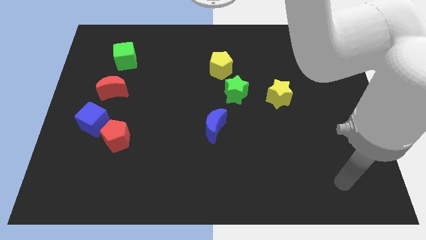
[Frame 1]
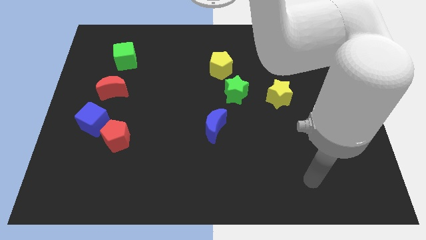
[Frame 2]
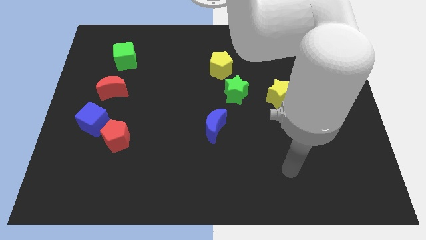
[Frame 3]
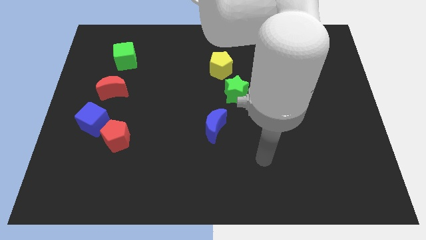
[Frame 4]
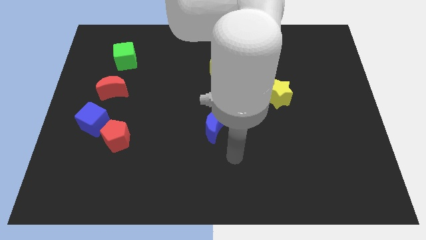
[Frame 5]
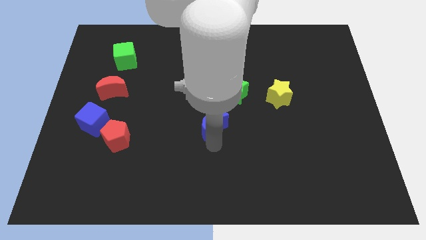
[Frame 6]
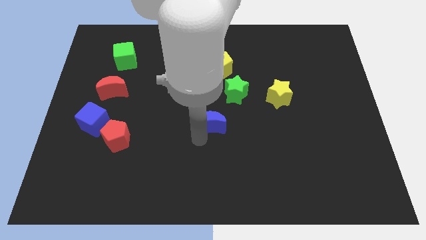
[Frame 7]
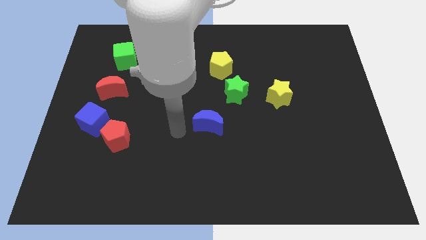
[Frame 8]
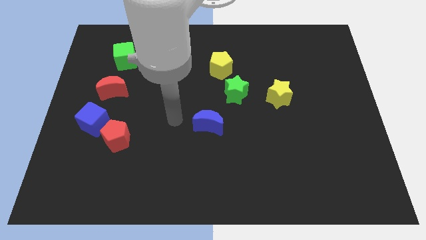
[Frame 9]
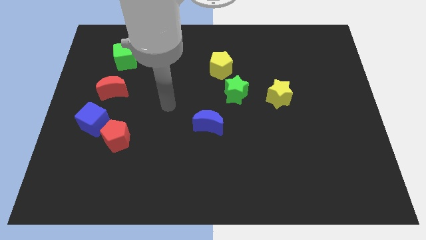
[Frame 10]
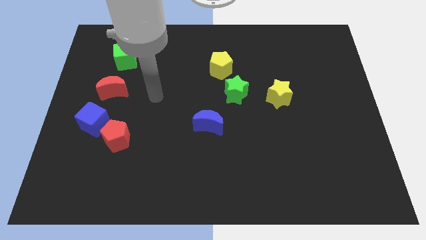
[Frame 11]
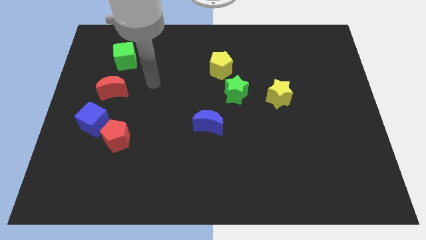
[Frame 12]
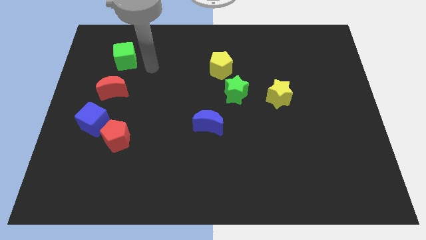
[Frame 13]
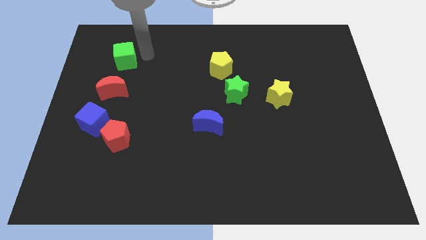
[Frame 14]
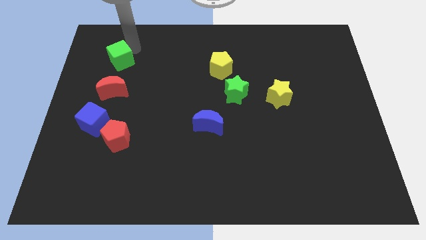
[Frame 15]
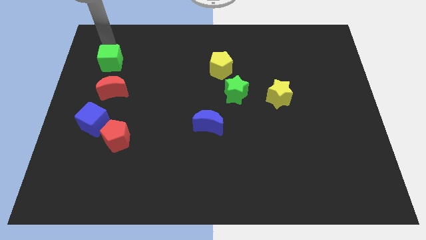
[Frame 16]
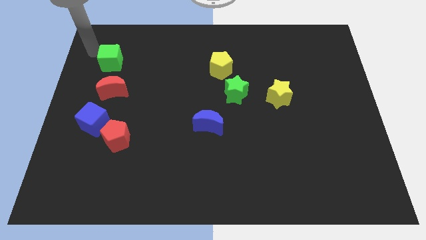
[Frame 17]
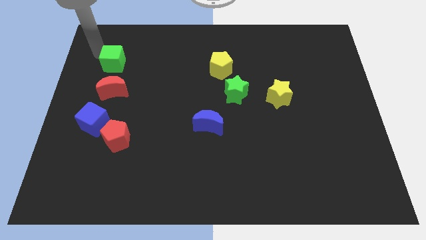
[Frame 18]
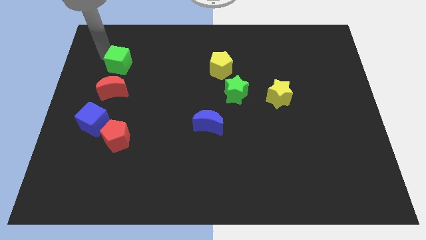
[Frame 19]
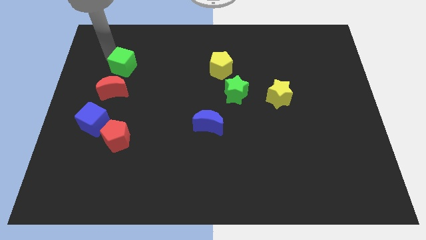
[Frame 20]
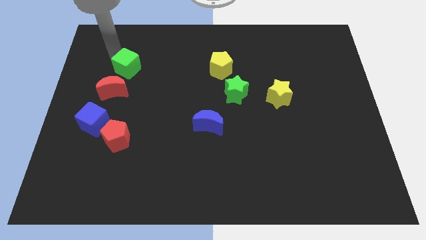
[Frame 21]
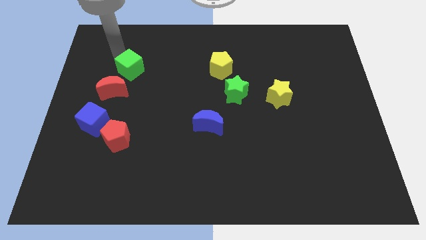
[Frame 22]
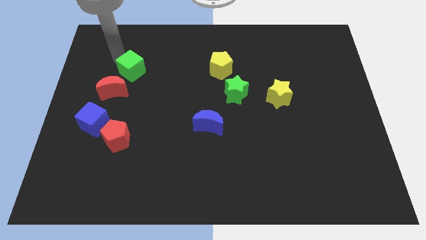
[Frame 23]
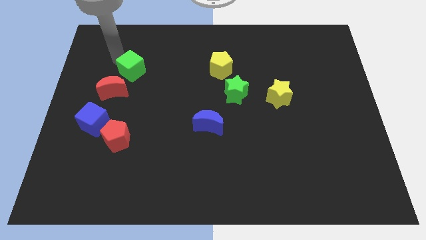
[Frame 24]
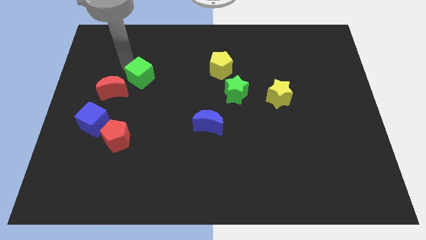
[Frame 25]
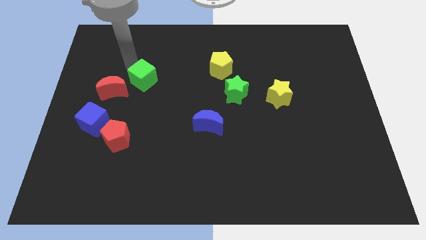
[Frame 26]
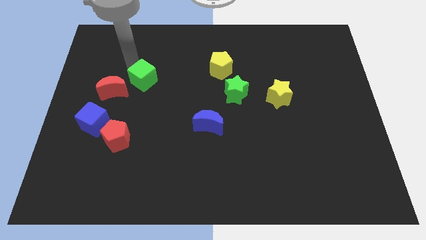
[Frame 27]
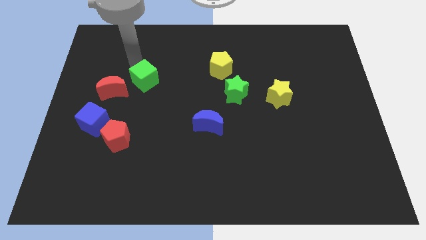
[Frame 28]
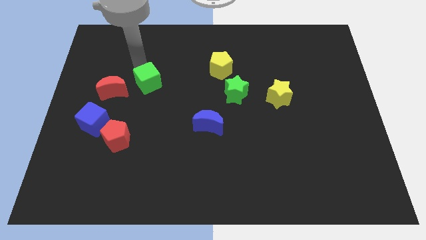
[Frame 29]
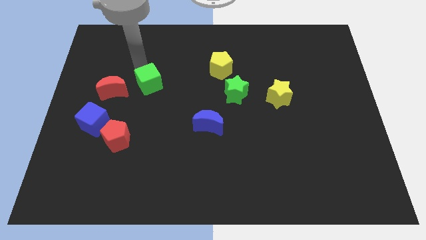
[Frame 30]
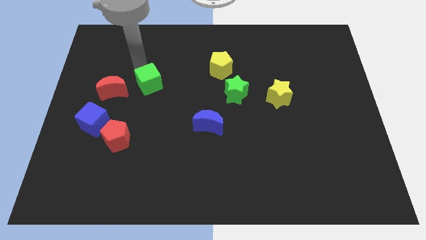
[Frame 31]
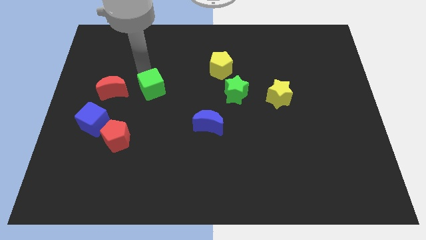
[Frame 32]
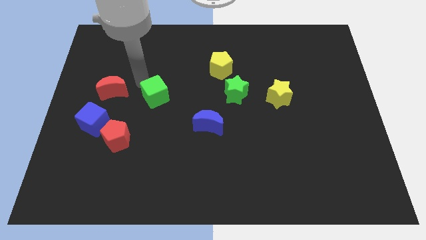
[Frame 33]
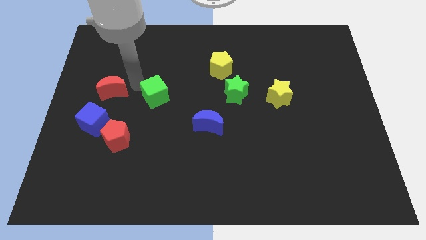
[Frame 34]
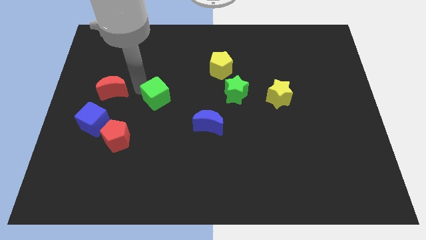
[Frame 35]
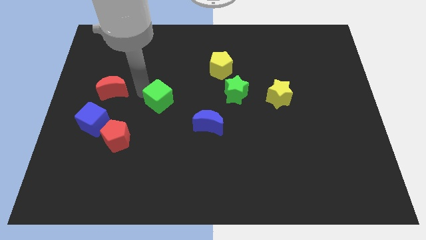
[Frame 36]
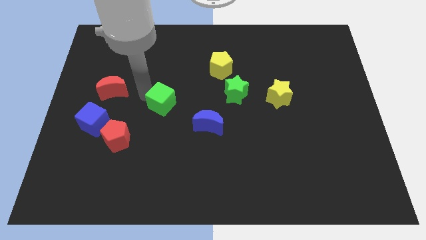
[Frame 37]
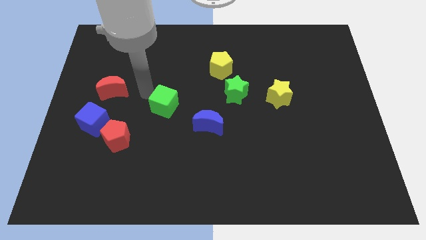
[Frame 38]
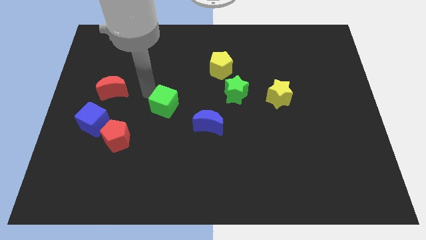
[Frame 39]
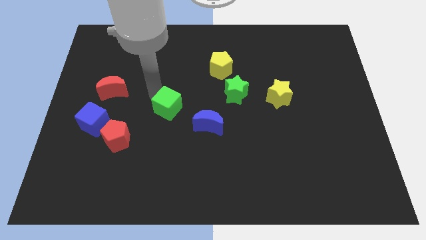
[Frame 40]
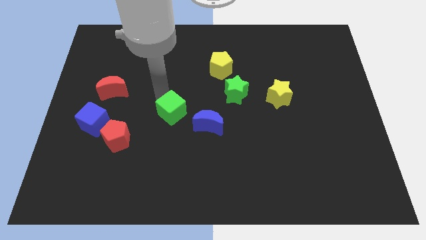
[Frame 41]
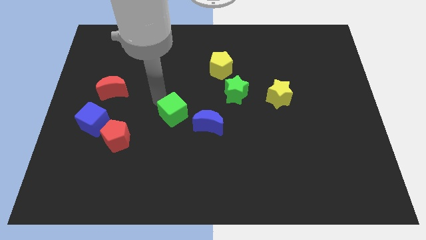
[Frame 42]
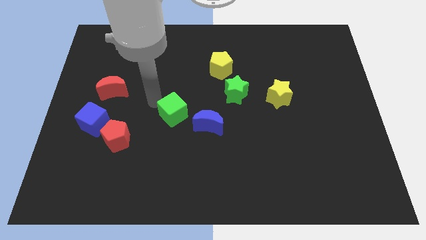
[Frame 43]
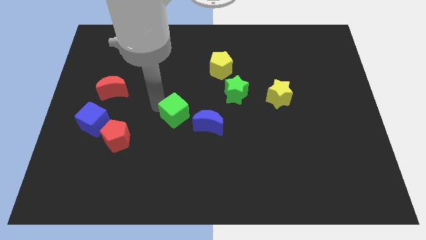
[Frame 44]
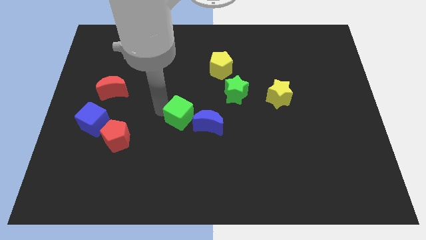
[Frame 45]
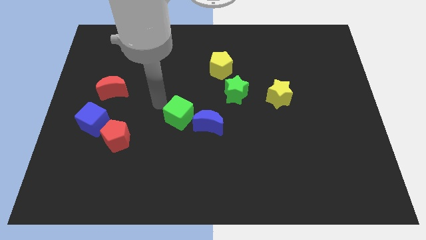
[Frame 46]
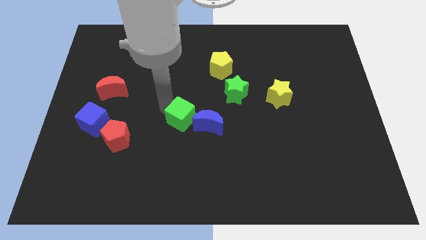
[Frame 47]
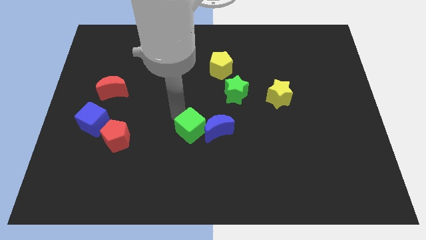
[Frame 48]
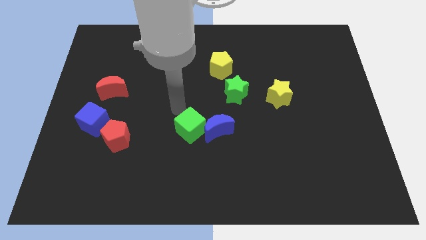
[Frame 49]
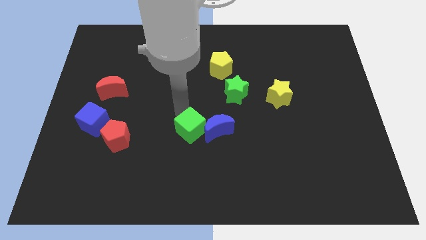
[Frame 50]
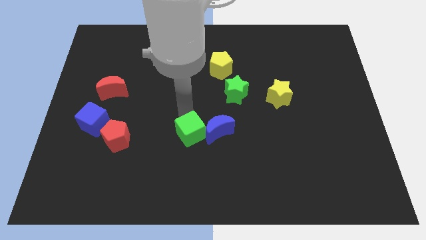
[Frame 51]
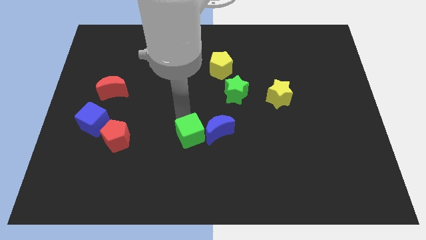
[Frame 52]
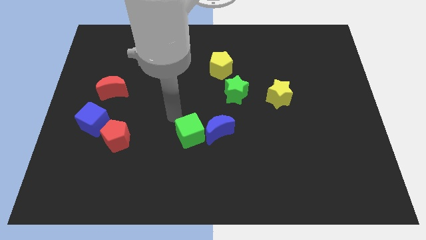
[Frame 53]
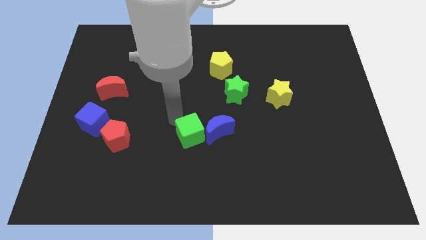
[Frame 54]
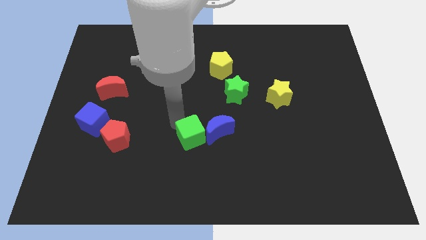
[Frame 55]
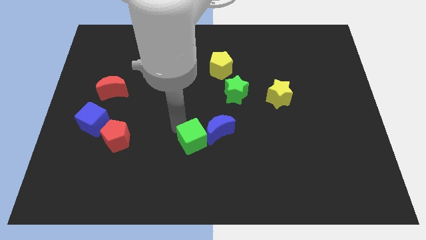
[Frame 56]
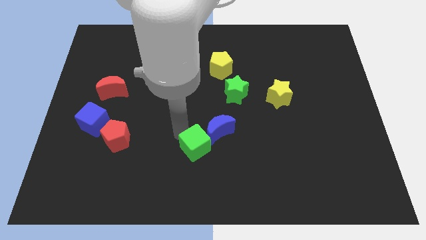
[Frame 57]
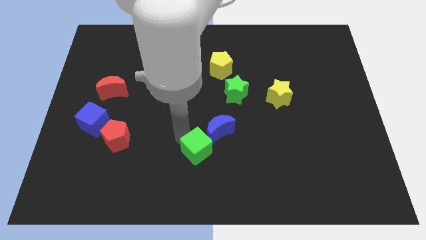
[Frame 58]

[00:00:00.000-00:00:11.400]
push the green cube to the bottom side of the blue moon

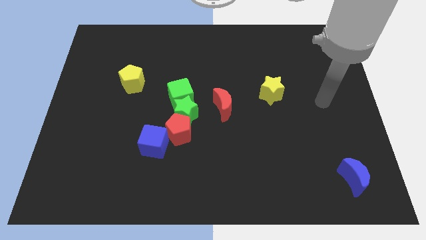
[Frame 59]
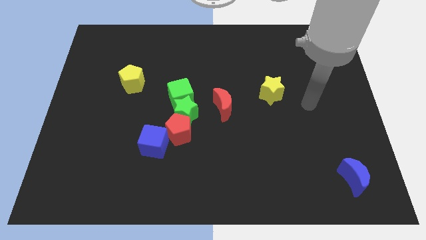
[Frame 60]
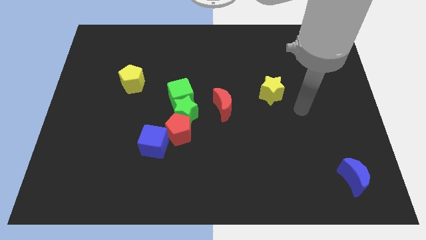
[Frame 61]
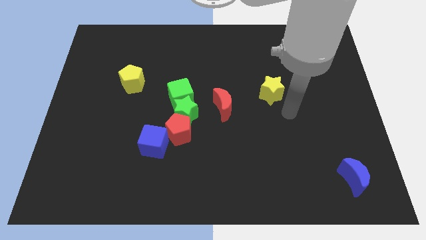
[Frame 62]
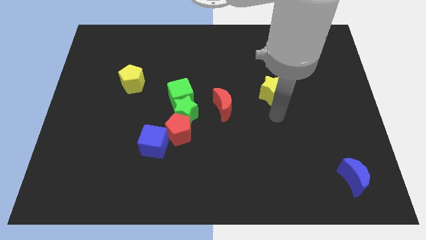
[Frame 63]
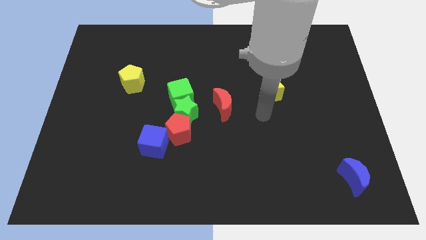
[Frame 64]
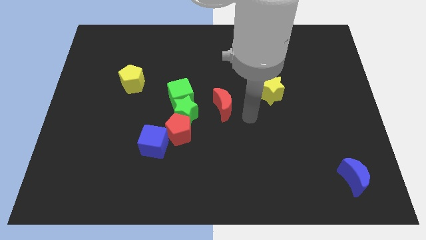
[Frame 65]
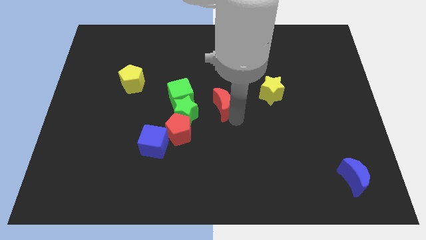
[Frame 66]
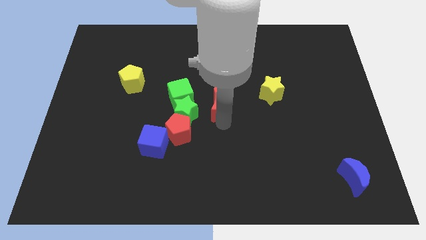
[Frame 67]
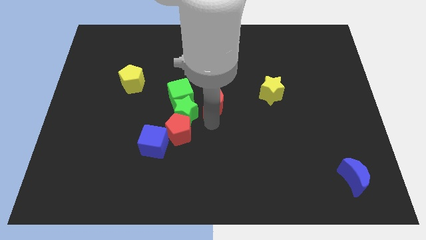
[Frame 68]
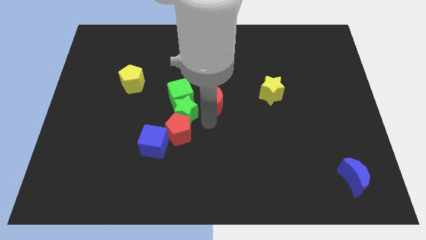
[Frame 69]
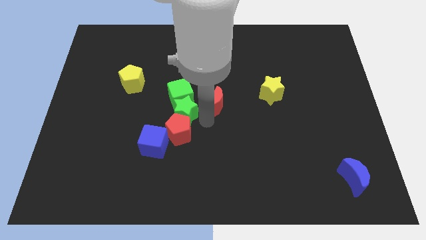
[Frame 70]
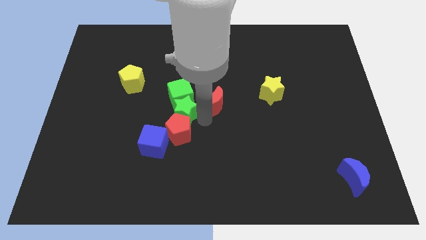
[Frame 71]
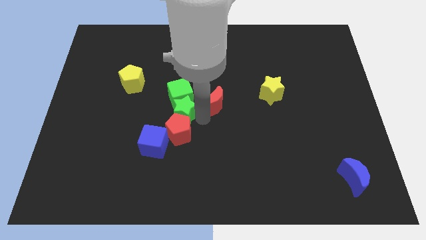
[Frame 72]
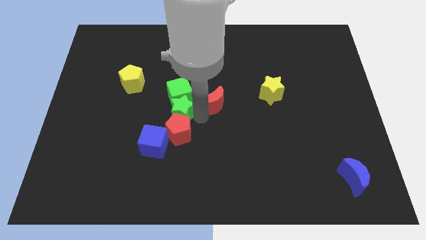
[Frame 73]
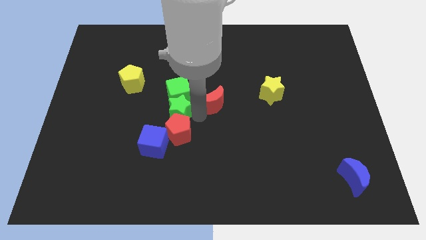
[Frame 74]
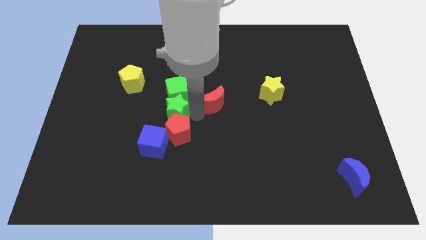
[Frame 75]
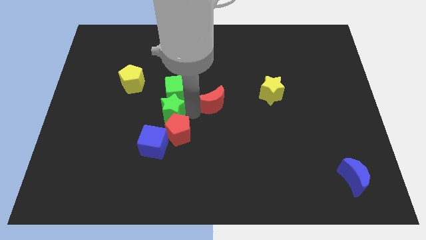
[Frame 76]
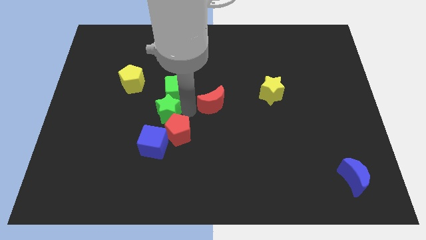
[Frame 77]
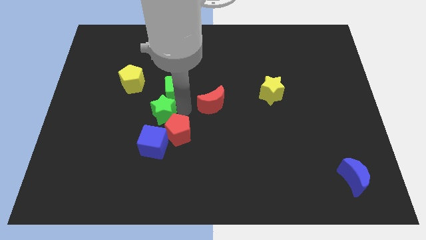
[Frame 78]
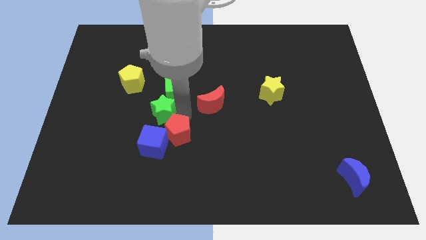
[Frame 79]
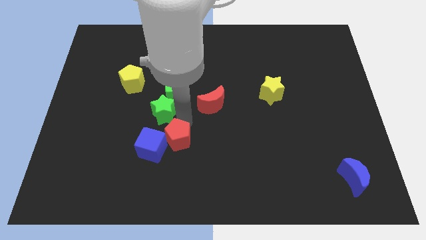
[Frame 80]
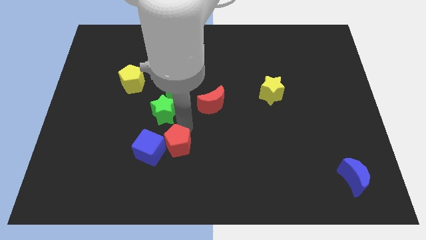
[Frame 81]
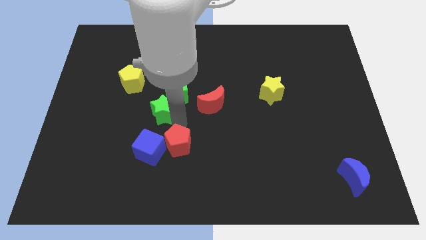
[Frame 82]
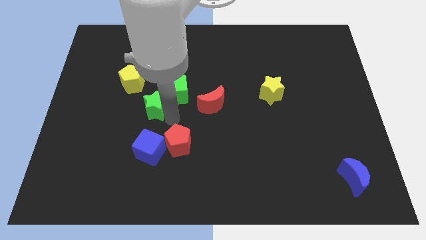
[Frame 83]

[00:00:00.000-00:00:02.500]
put the green star to the left of the green cube
